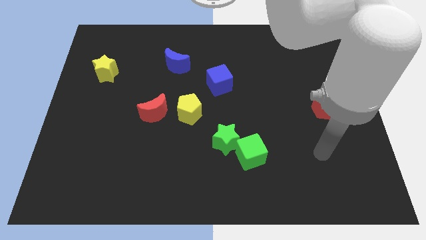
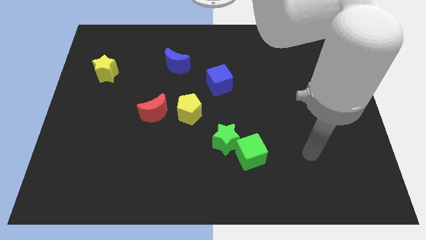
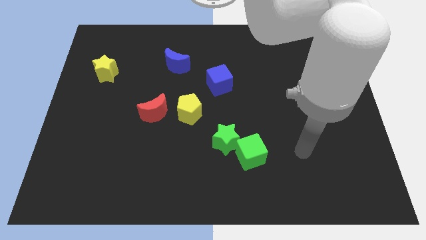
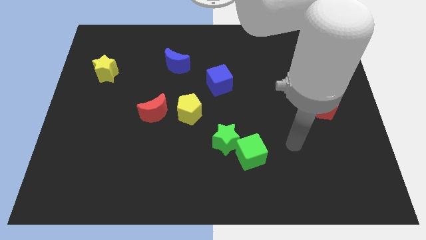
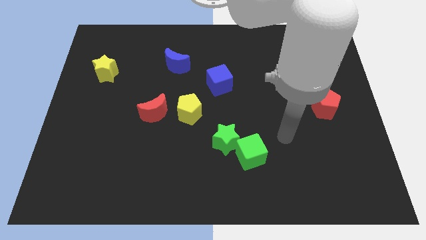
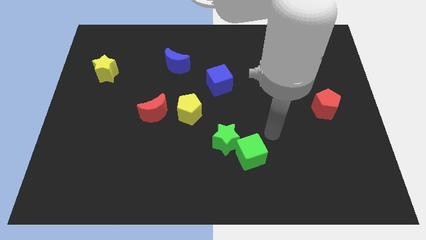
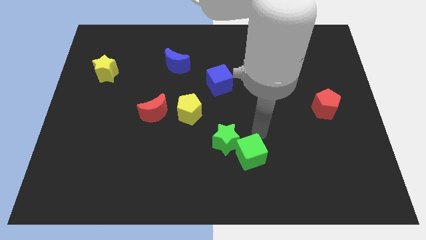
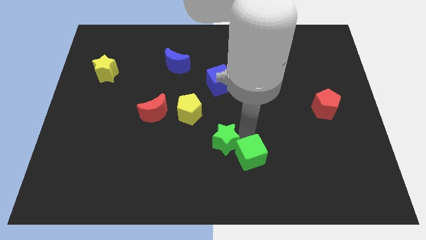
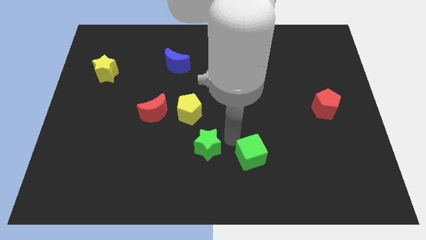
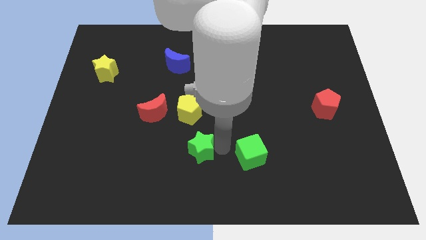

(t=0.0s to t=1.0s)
pull the green cube apart from the green star

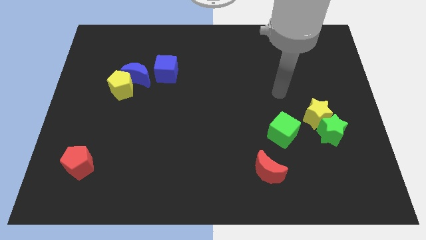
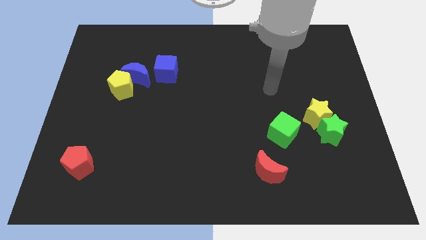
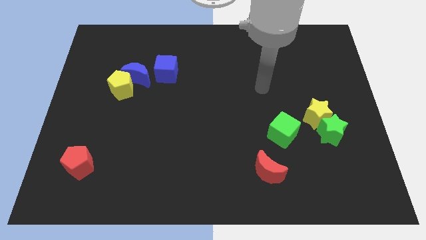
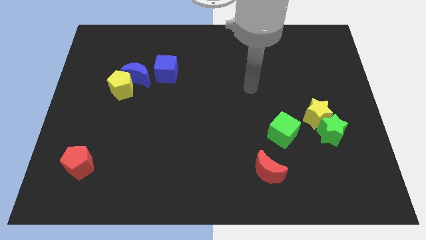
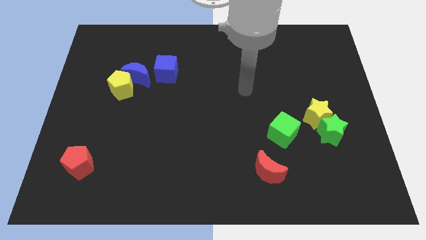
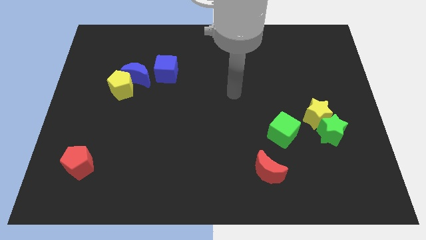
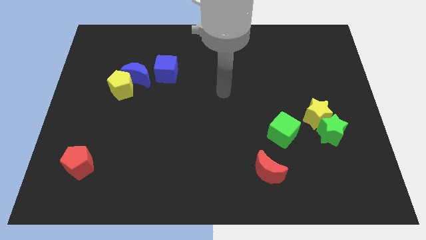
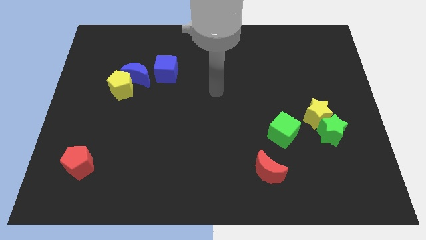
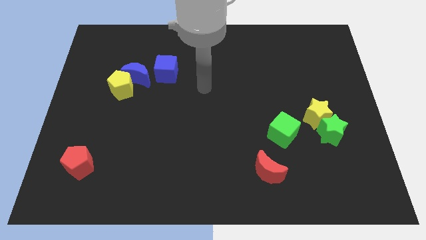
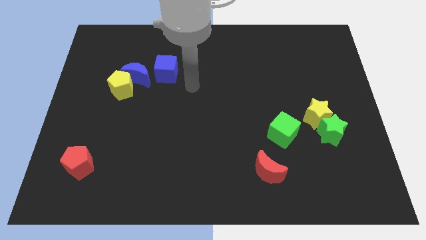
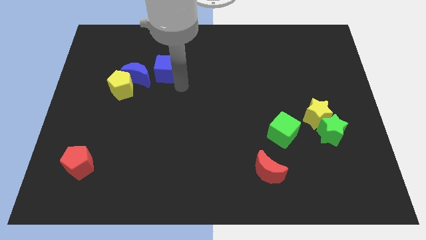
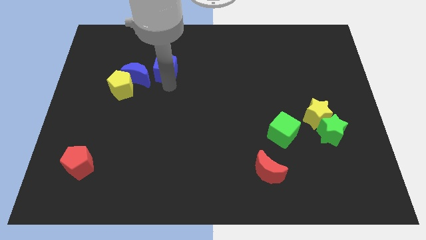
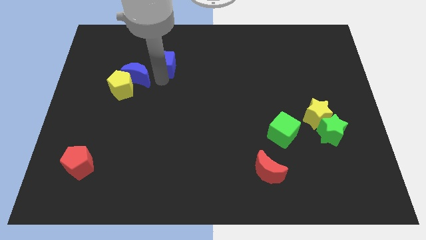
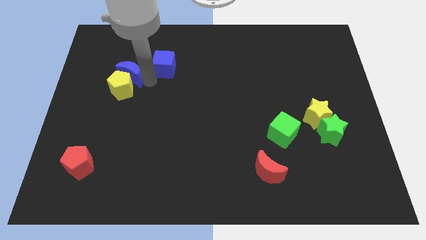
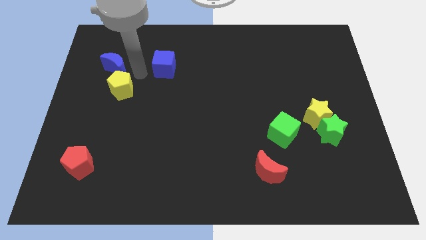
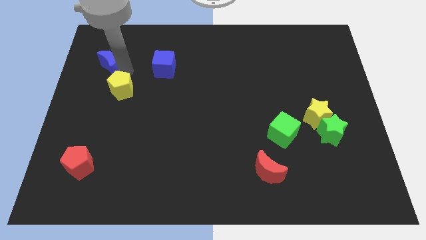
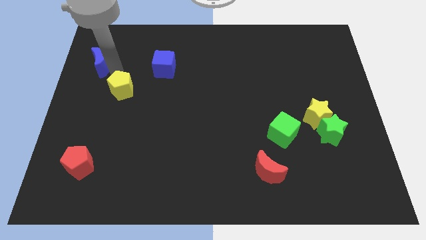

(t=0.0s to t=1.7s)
pull the yellow pentagon apart from the blue moon

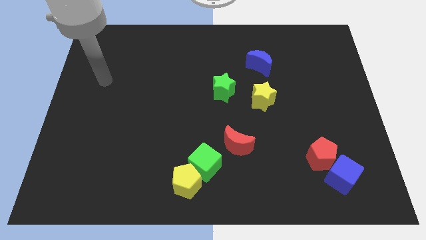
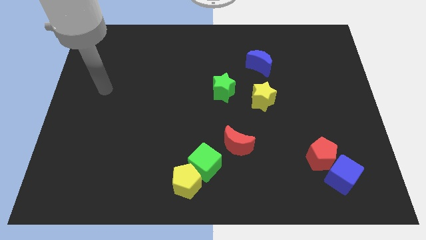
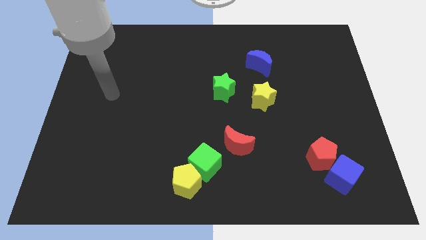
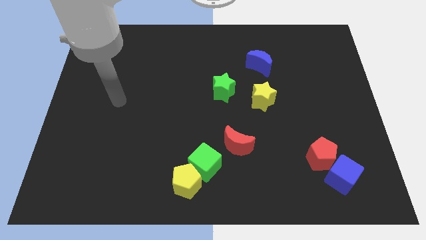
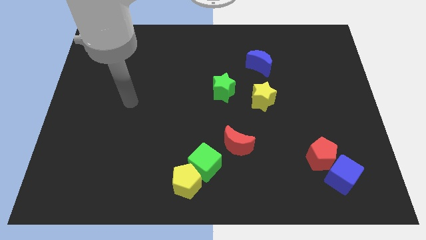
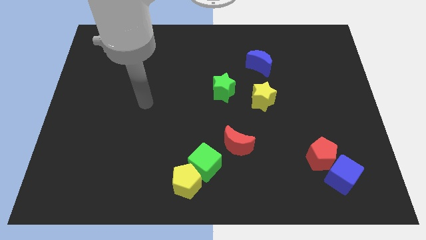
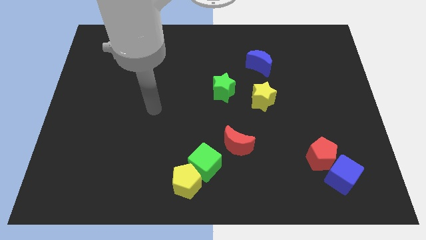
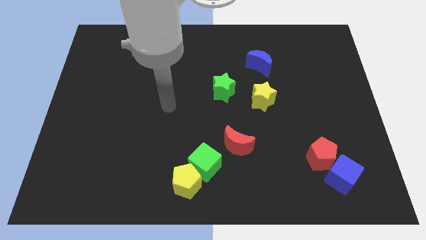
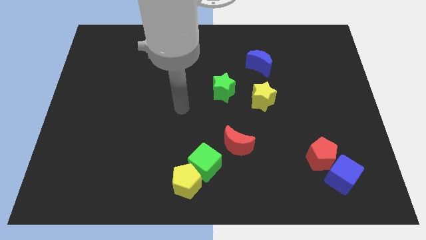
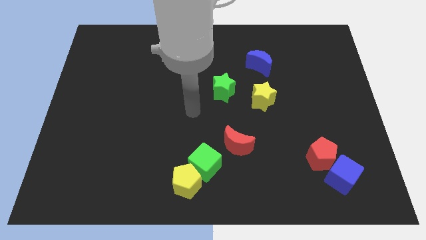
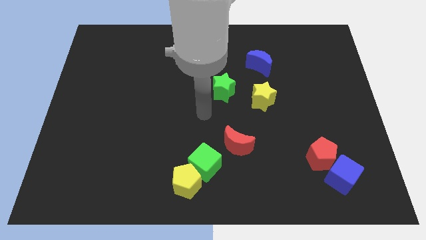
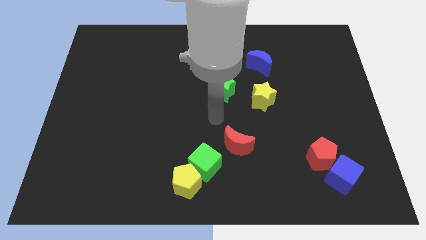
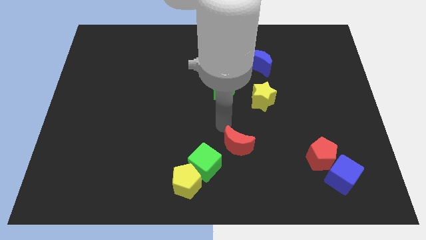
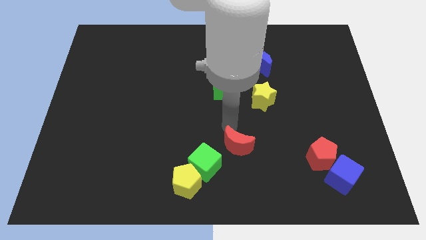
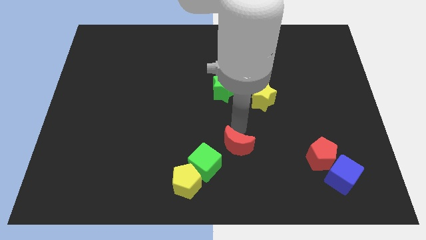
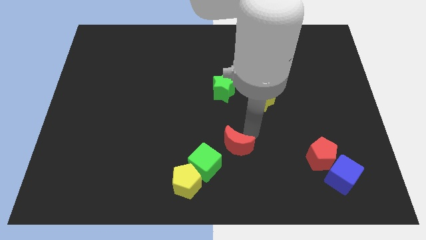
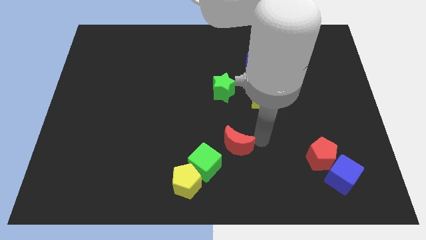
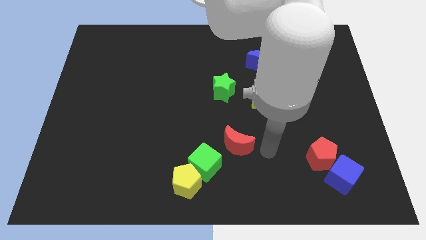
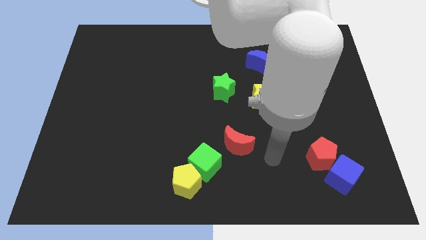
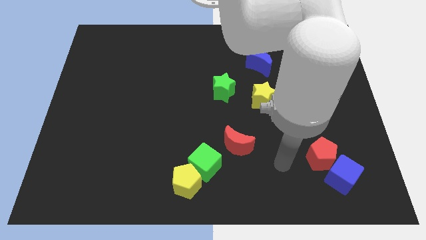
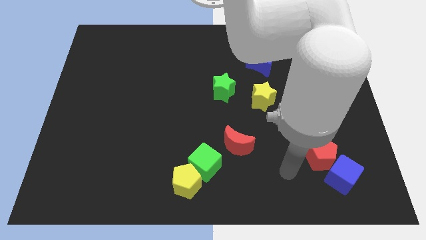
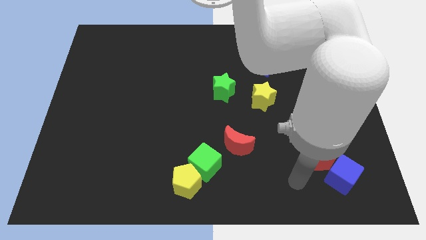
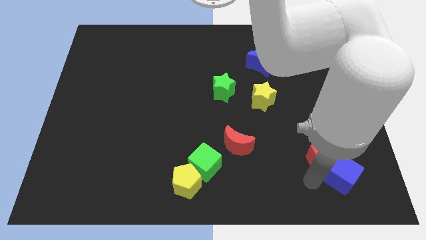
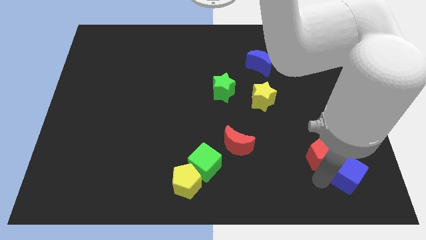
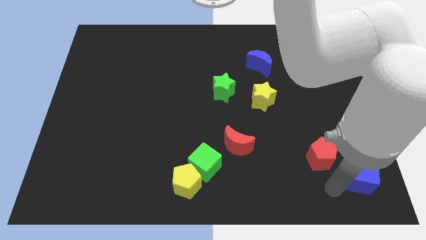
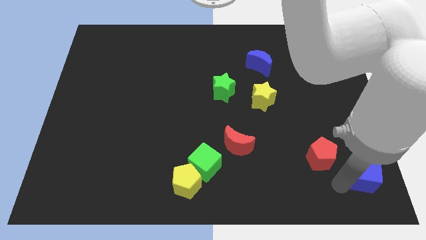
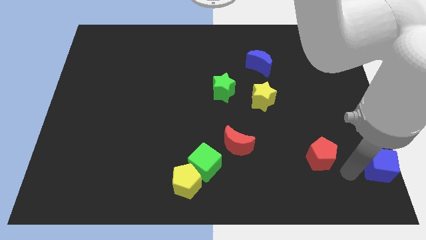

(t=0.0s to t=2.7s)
move the red pentagon away from the blue cube

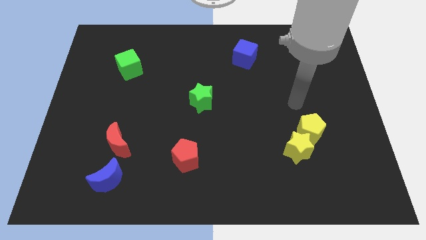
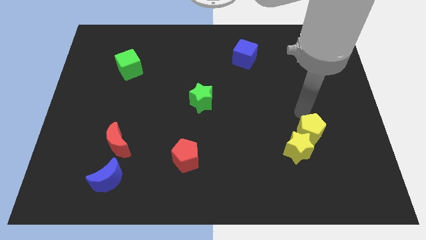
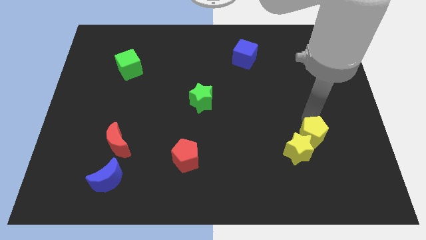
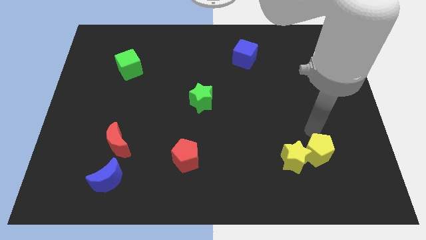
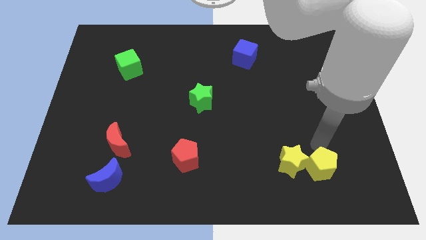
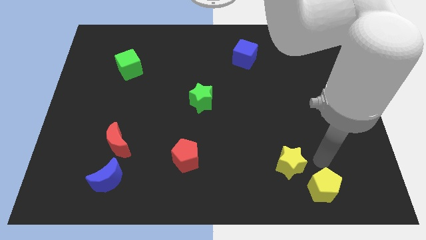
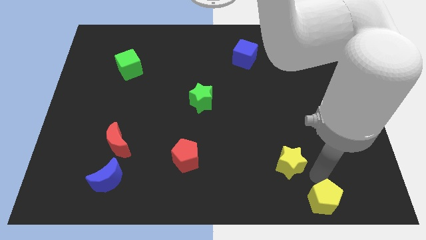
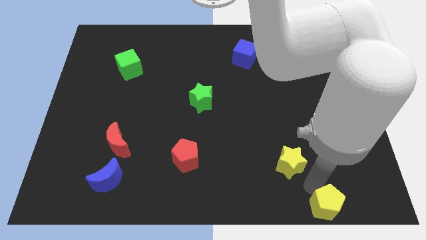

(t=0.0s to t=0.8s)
move the yellow star away from the yellow pentagon

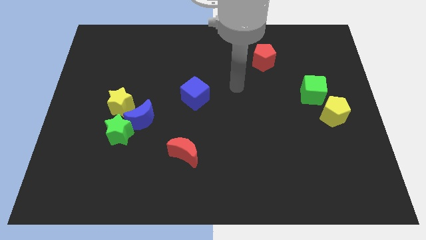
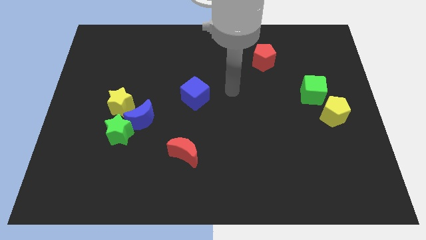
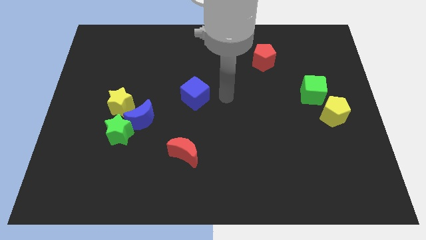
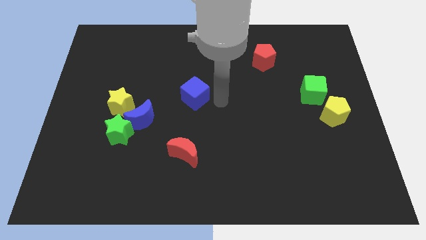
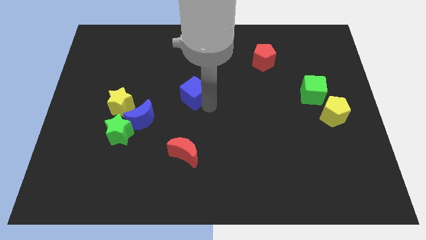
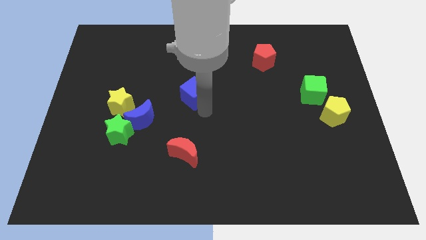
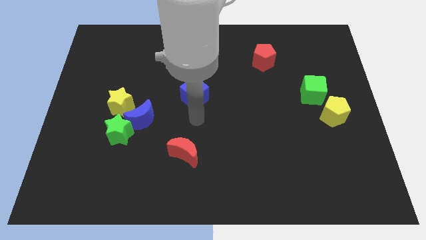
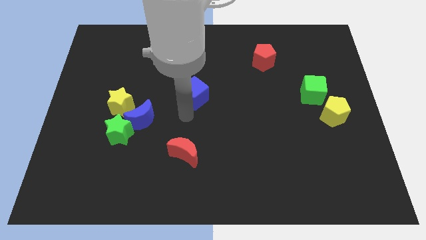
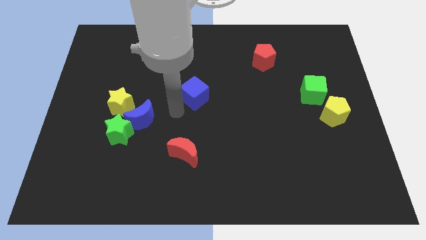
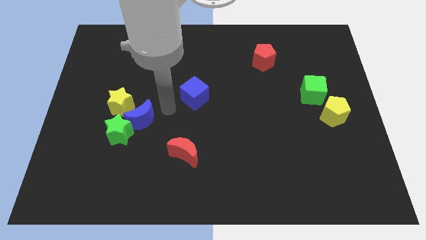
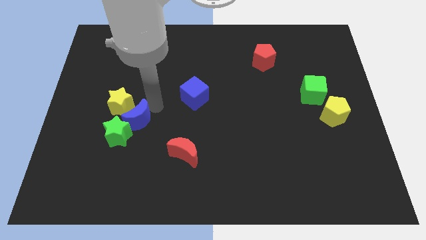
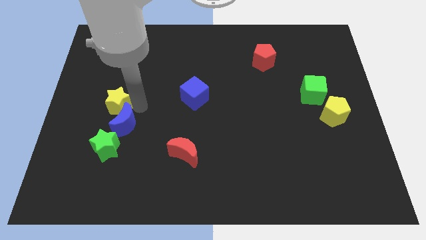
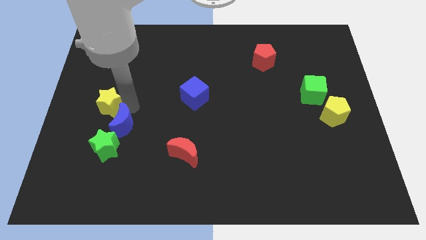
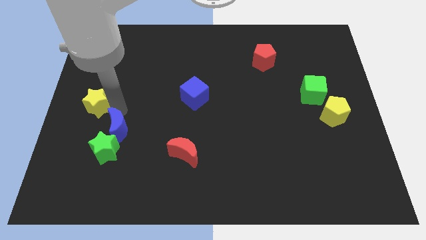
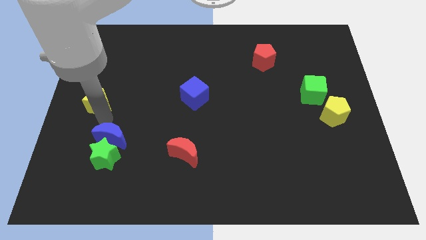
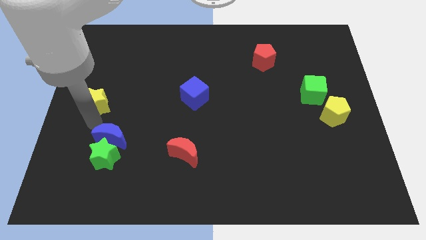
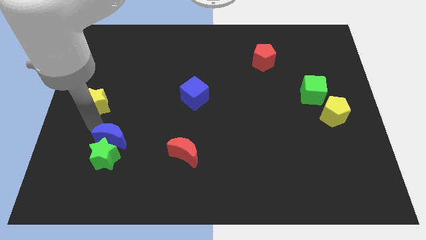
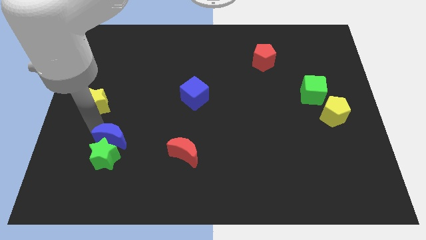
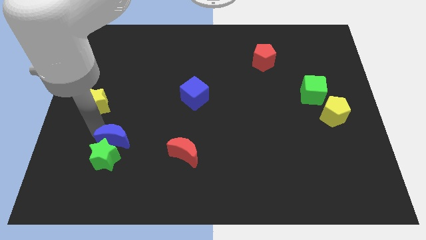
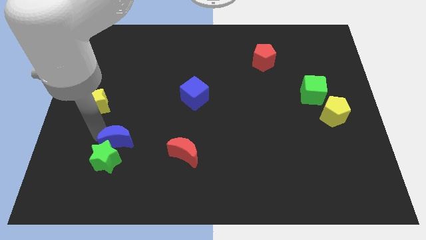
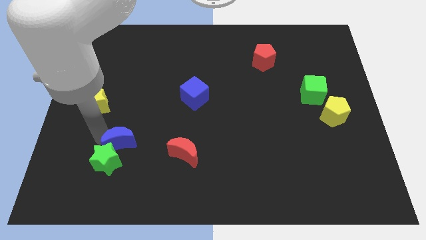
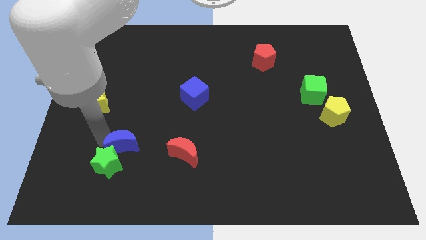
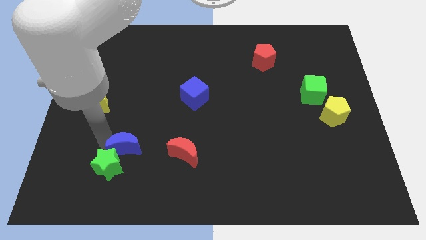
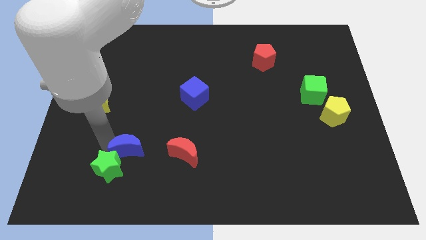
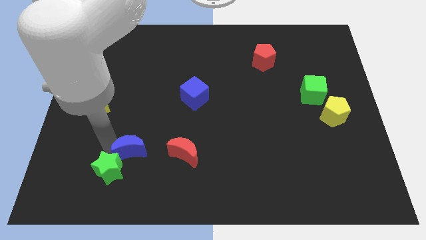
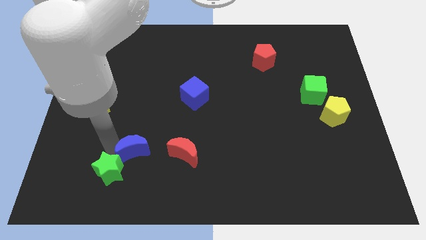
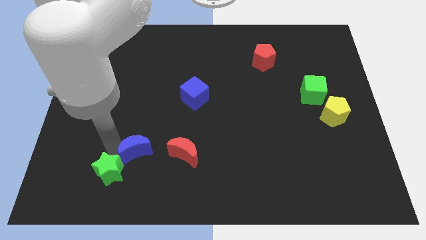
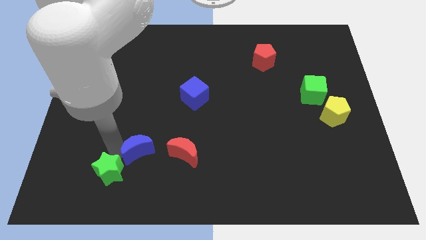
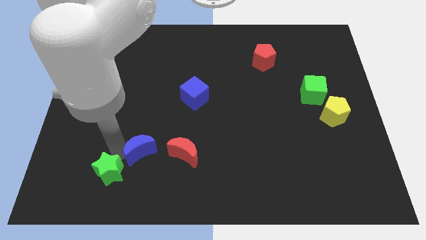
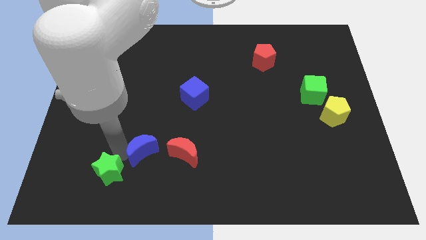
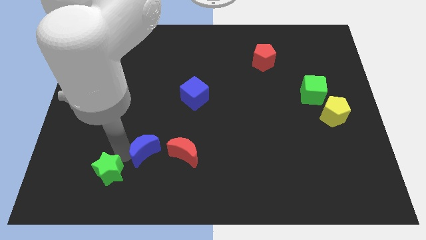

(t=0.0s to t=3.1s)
pull the blue moon apart from the green star and yellow star

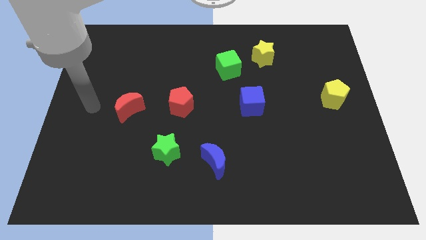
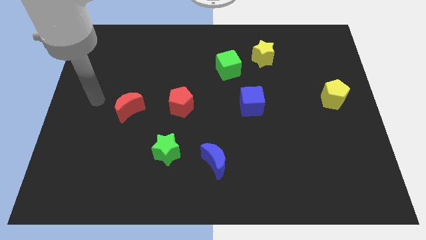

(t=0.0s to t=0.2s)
move the green cube away from the yellow star
